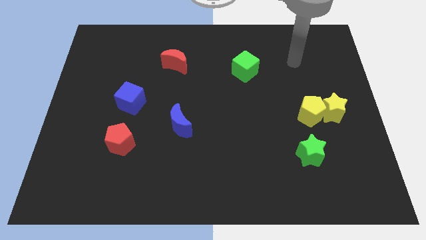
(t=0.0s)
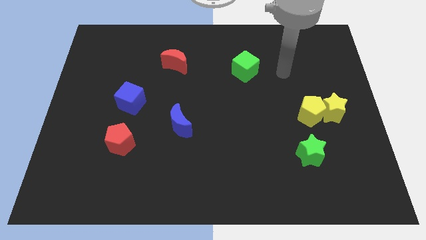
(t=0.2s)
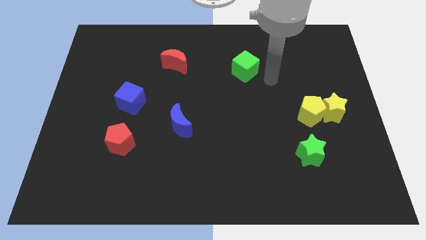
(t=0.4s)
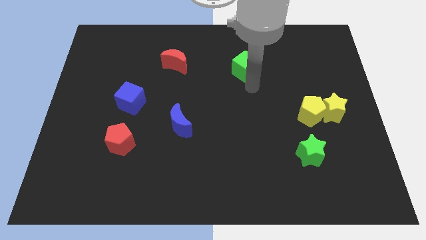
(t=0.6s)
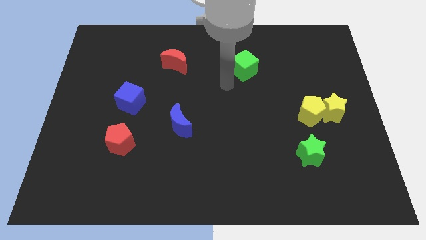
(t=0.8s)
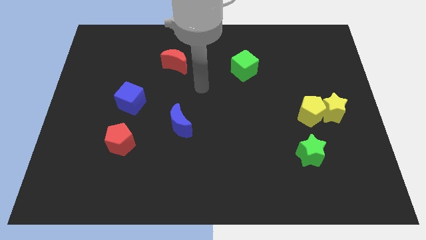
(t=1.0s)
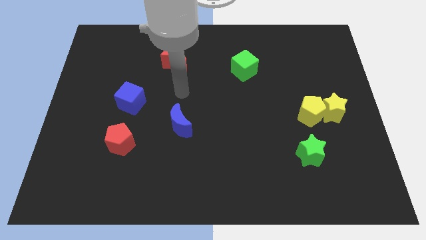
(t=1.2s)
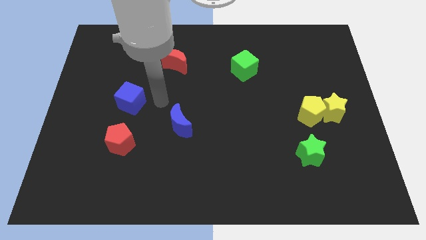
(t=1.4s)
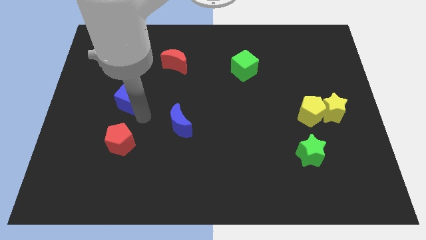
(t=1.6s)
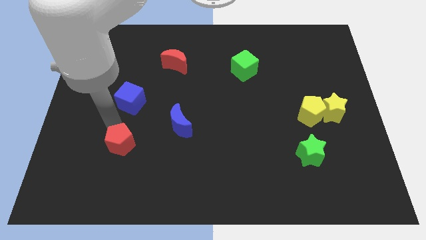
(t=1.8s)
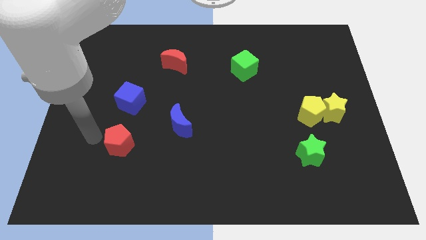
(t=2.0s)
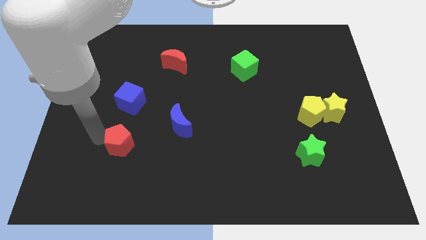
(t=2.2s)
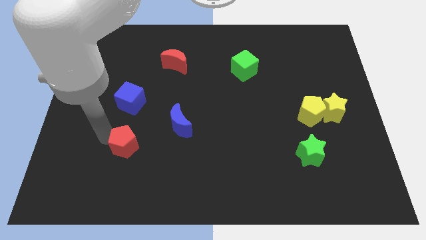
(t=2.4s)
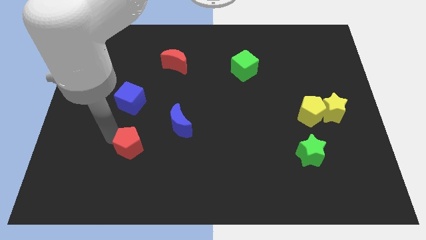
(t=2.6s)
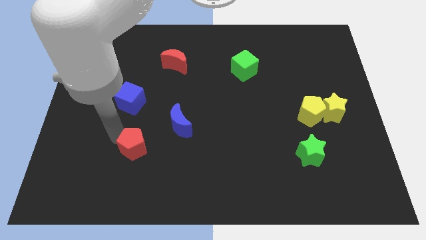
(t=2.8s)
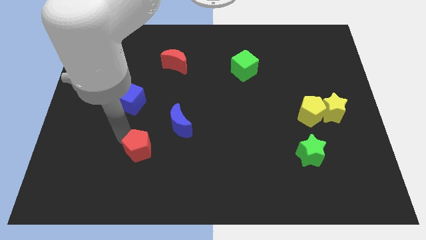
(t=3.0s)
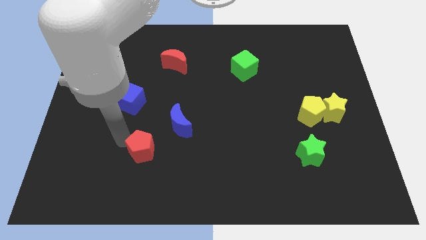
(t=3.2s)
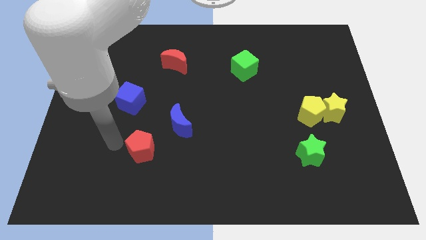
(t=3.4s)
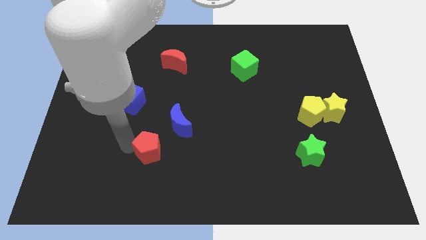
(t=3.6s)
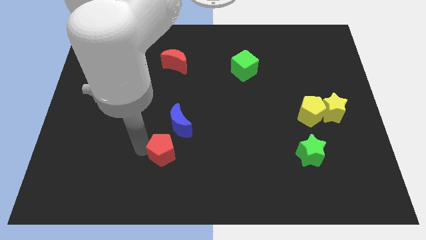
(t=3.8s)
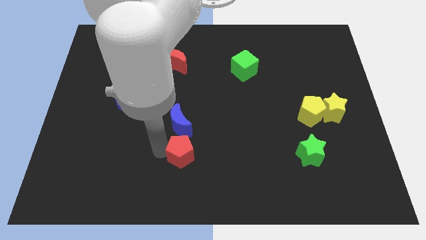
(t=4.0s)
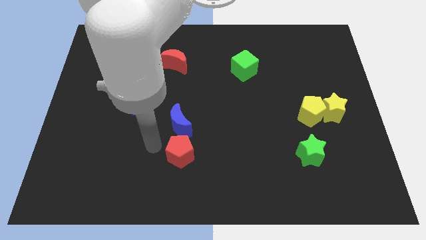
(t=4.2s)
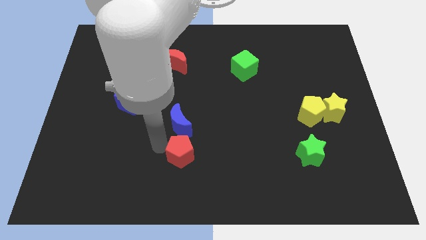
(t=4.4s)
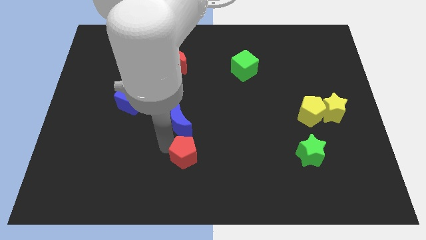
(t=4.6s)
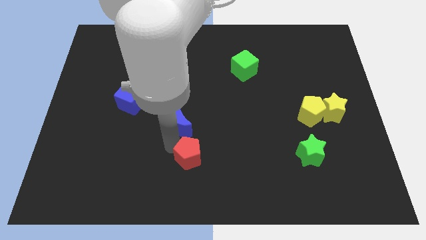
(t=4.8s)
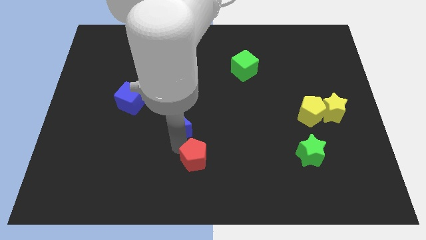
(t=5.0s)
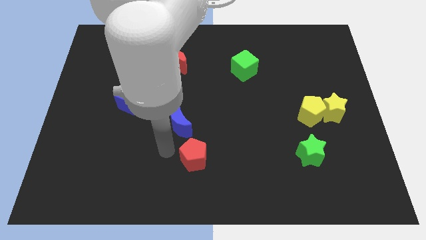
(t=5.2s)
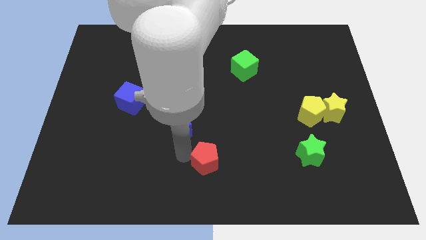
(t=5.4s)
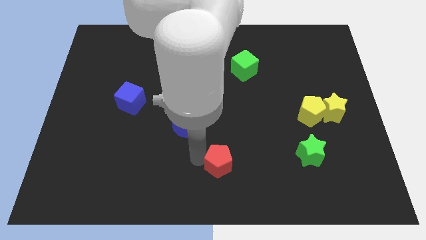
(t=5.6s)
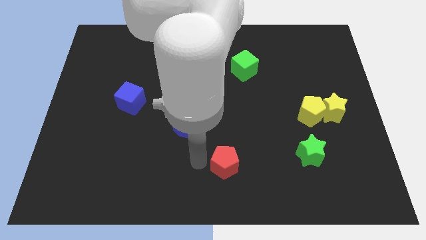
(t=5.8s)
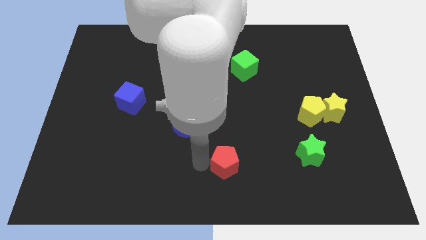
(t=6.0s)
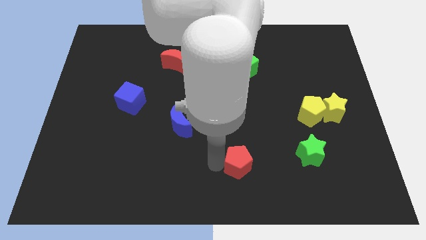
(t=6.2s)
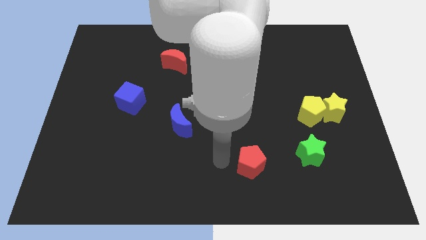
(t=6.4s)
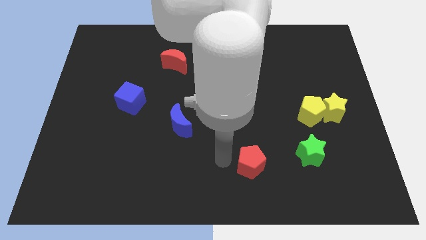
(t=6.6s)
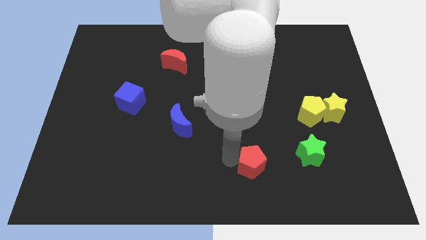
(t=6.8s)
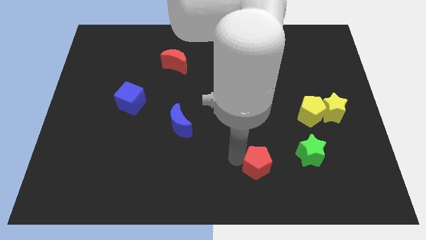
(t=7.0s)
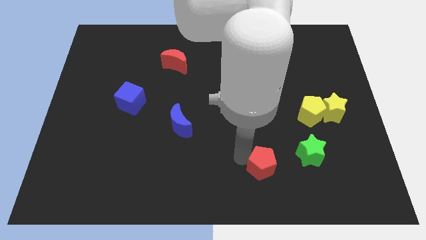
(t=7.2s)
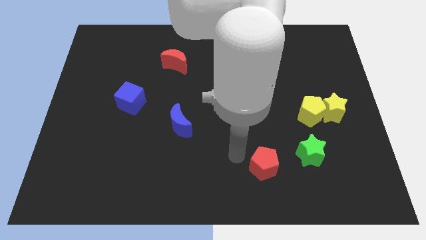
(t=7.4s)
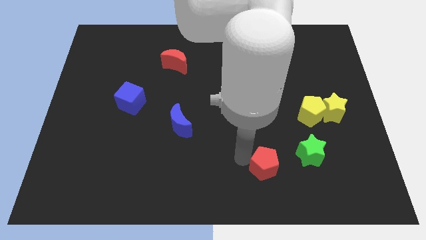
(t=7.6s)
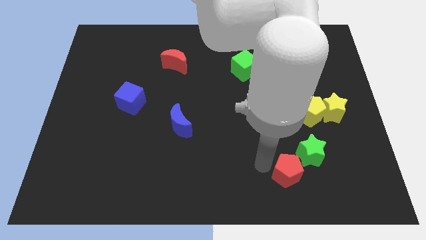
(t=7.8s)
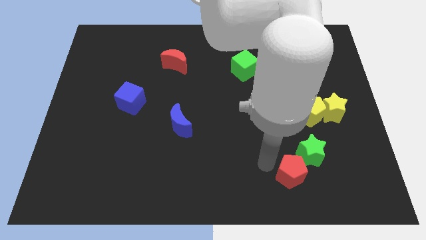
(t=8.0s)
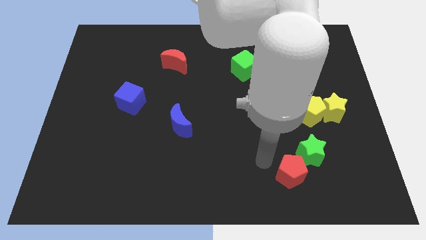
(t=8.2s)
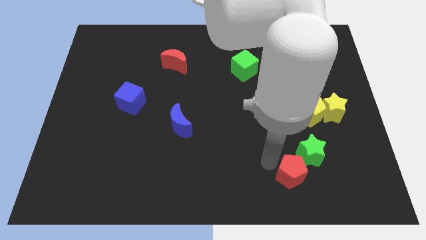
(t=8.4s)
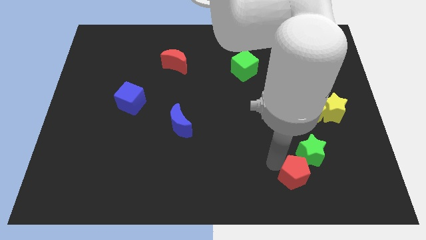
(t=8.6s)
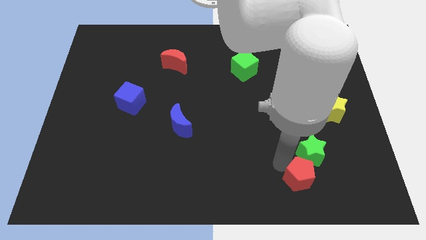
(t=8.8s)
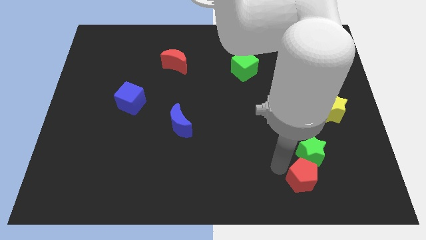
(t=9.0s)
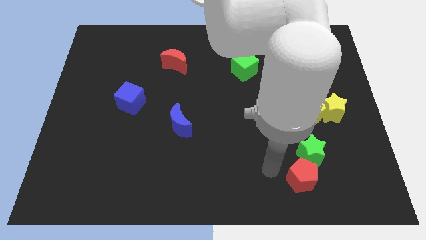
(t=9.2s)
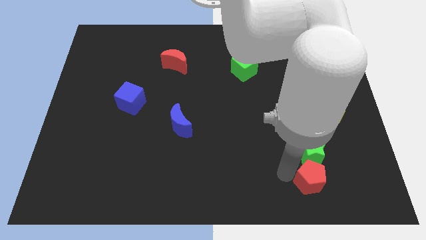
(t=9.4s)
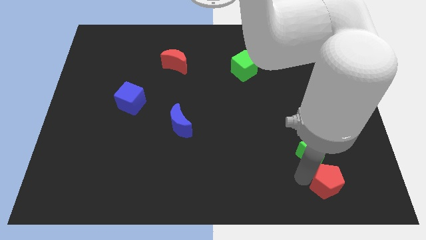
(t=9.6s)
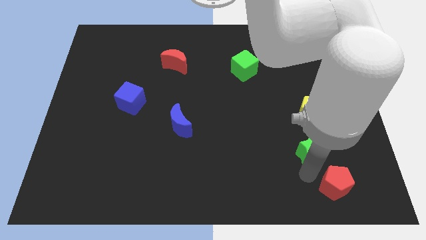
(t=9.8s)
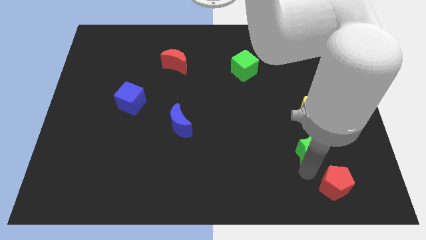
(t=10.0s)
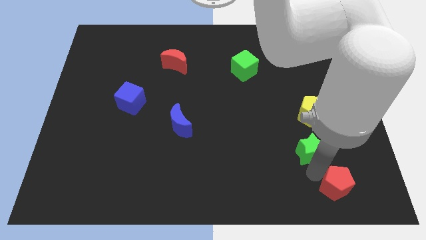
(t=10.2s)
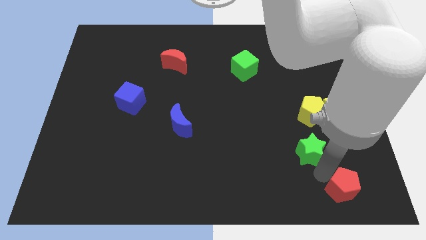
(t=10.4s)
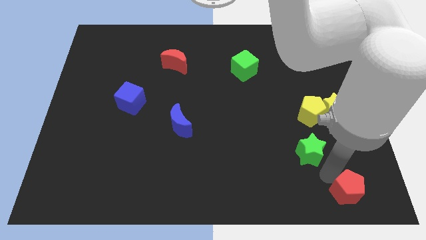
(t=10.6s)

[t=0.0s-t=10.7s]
slide the red pentagon to the bottom right
